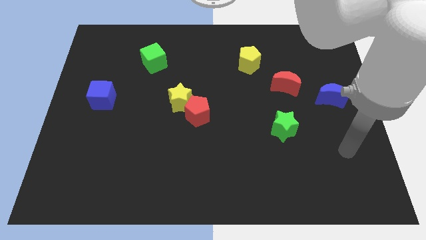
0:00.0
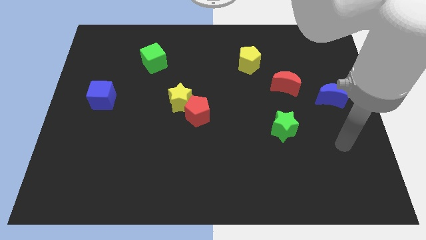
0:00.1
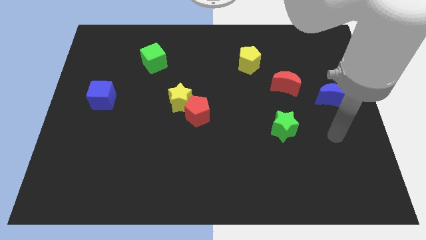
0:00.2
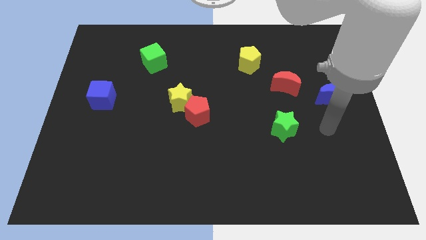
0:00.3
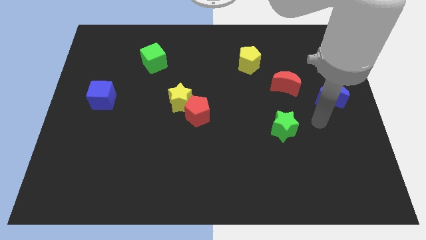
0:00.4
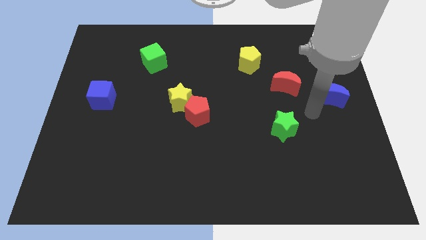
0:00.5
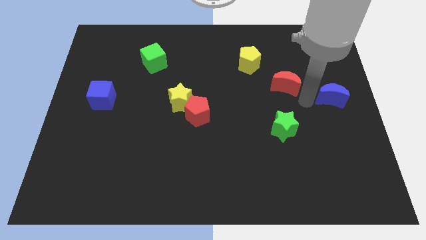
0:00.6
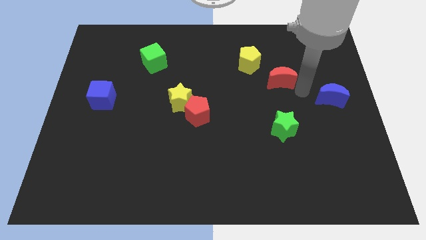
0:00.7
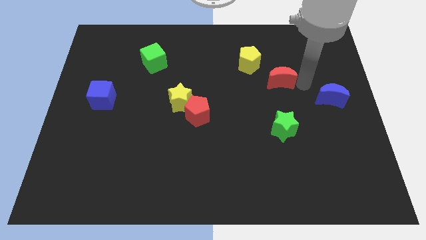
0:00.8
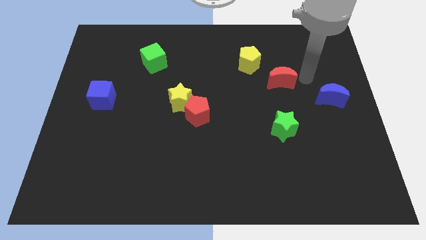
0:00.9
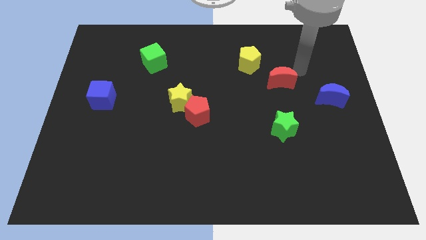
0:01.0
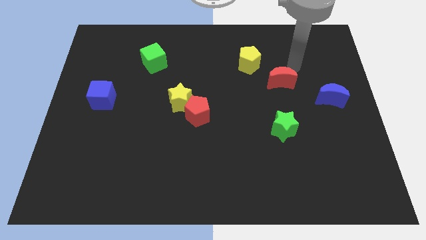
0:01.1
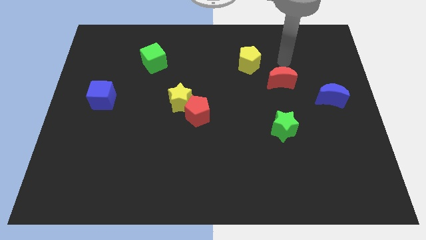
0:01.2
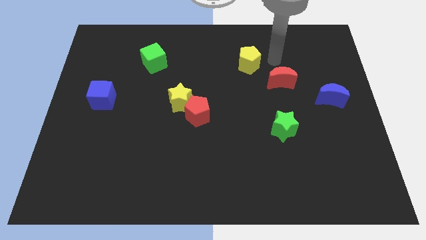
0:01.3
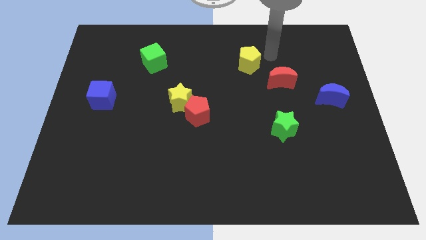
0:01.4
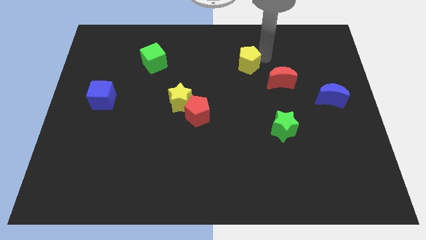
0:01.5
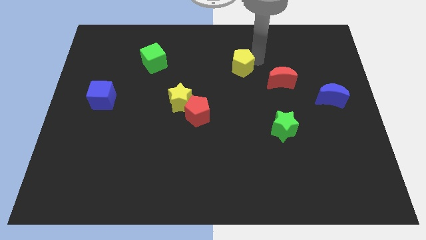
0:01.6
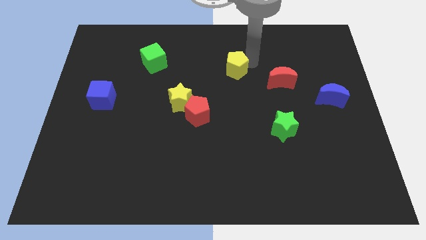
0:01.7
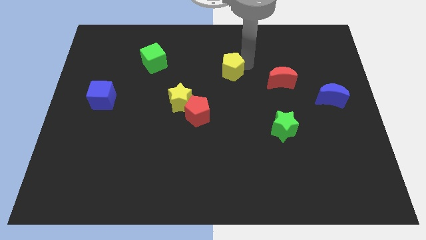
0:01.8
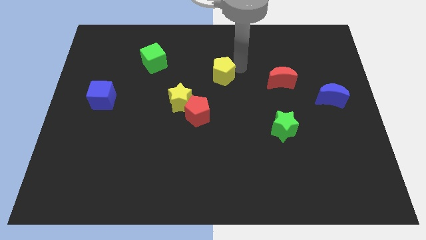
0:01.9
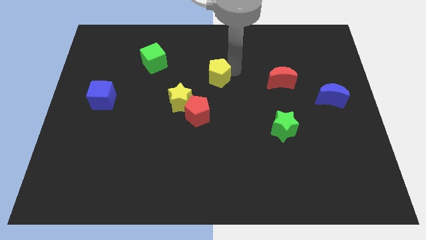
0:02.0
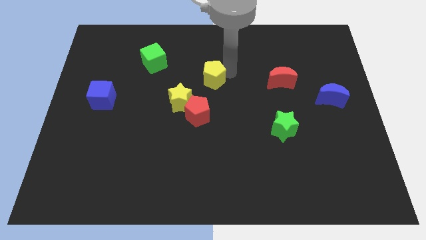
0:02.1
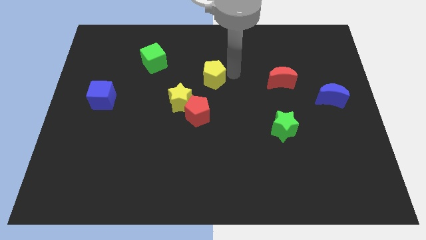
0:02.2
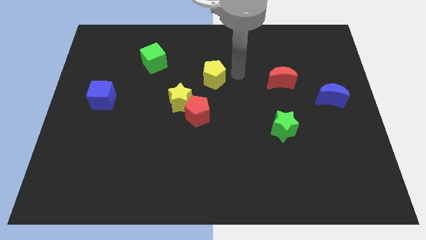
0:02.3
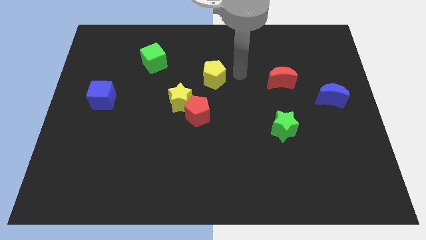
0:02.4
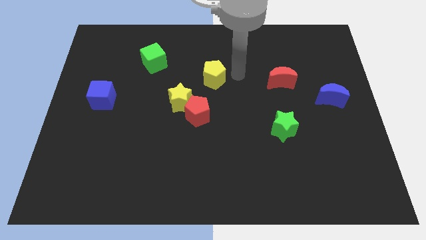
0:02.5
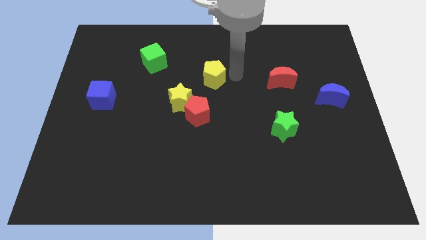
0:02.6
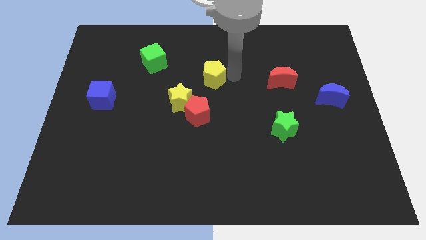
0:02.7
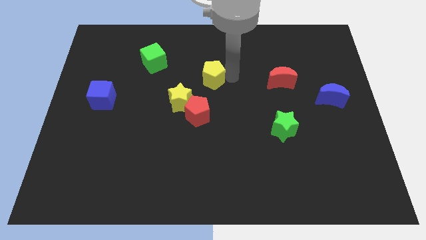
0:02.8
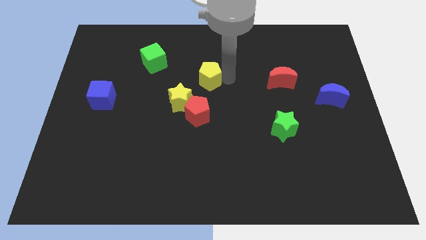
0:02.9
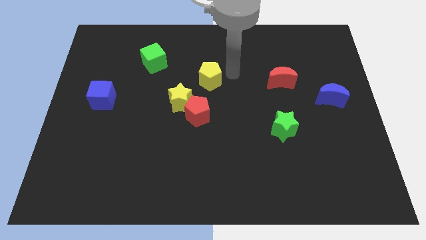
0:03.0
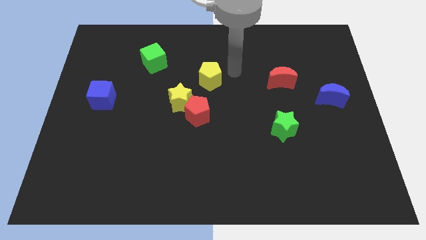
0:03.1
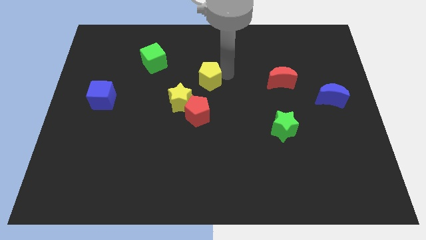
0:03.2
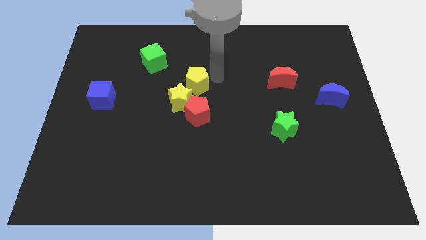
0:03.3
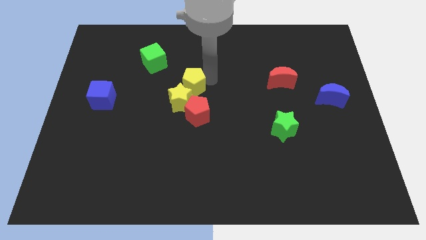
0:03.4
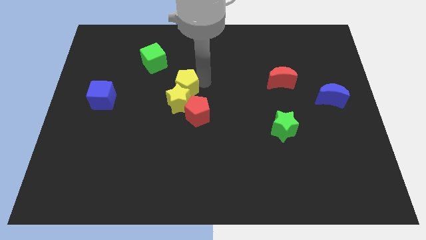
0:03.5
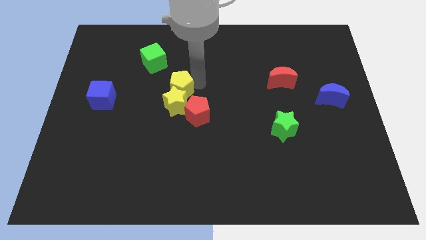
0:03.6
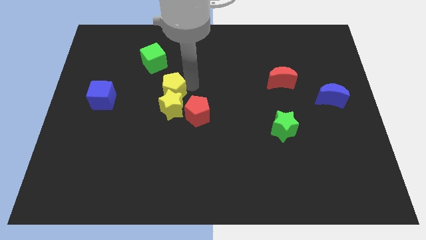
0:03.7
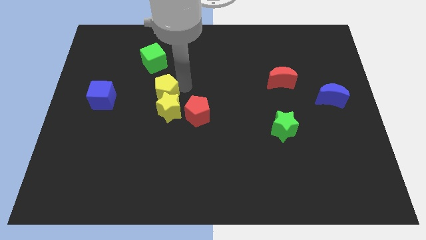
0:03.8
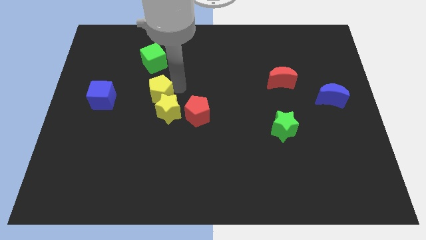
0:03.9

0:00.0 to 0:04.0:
push the yellow pentagon downwards and to the left

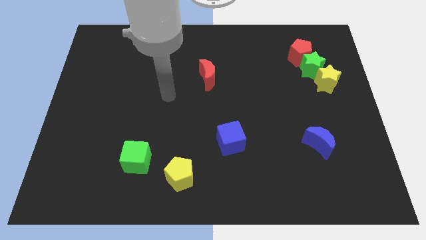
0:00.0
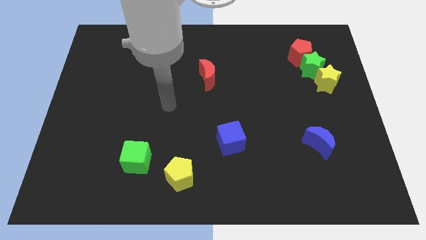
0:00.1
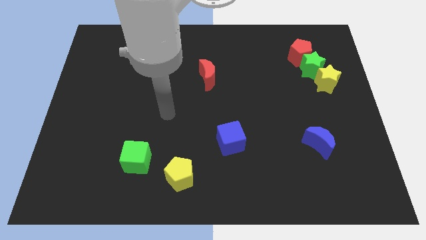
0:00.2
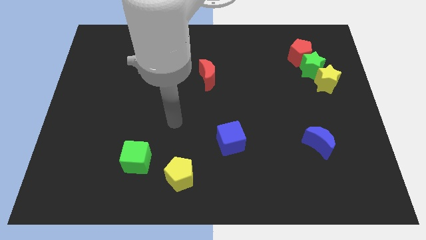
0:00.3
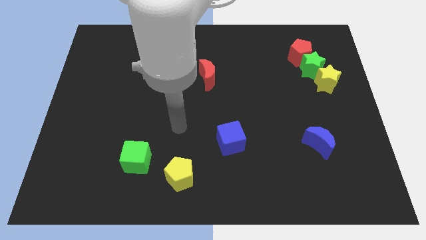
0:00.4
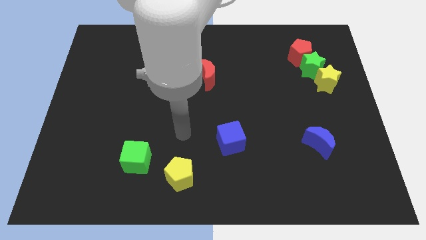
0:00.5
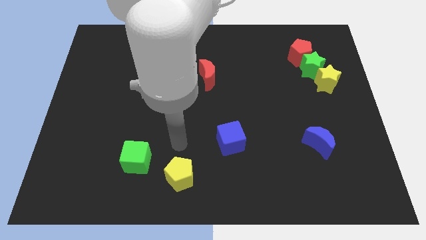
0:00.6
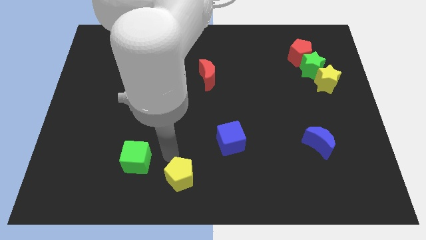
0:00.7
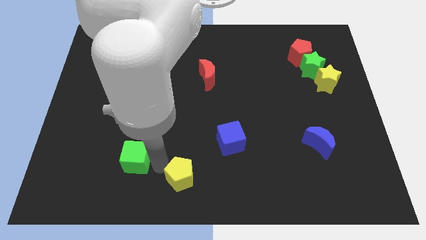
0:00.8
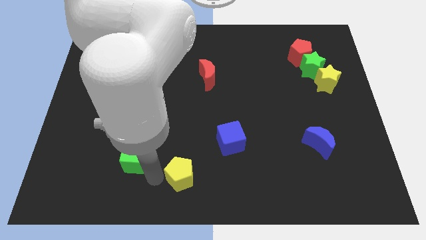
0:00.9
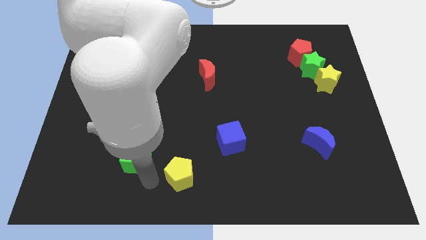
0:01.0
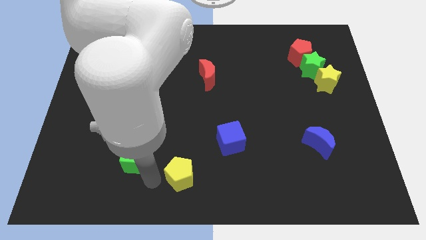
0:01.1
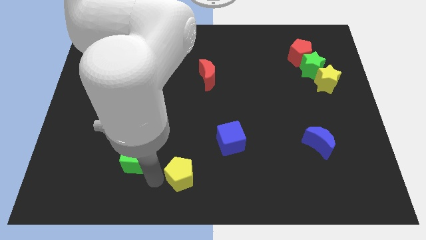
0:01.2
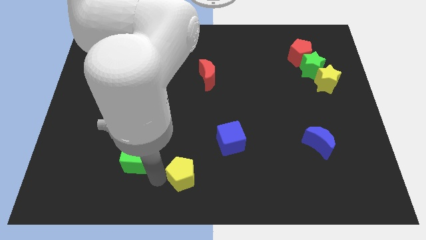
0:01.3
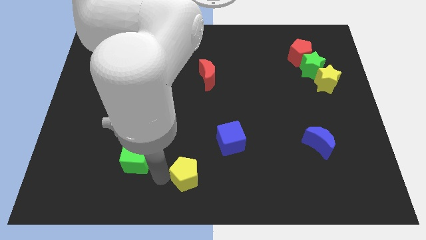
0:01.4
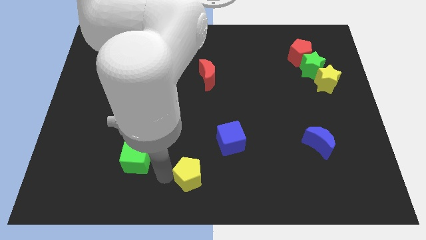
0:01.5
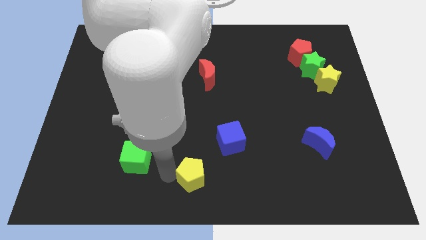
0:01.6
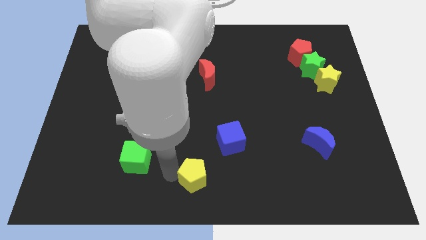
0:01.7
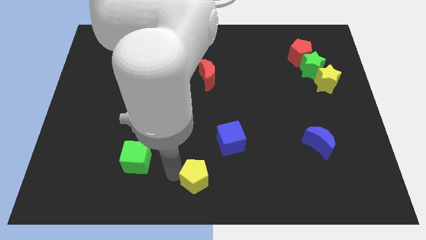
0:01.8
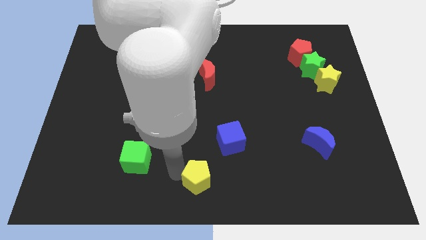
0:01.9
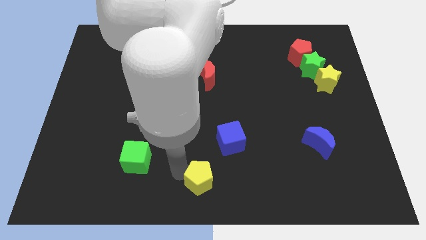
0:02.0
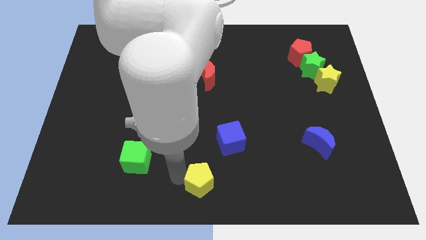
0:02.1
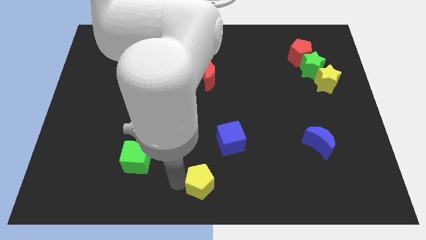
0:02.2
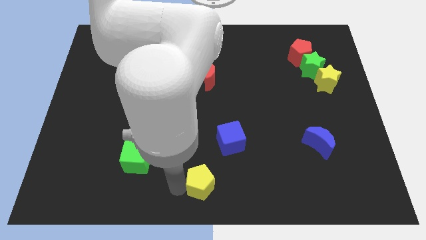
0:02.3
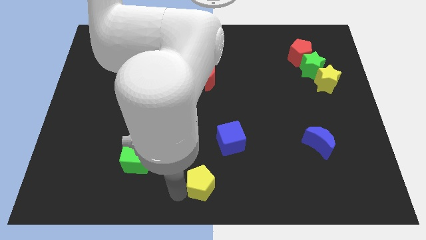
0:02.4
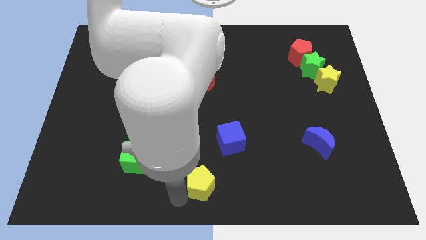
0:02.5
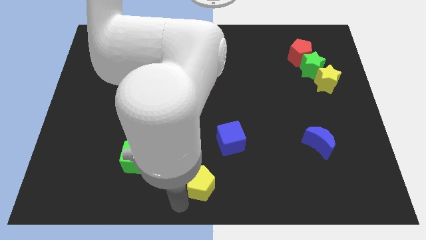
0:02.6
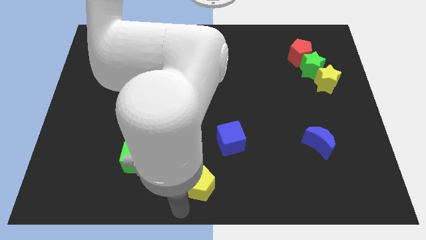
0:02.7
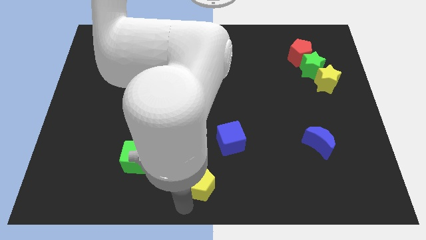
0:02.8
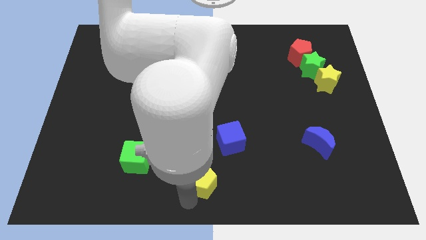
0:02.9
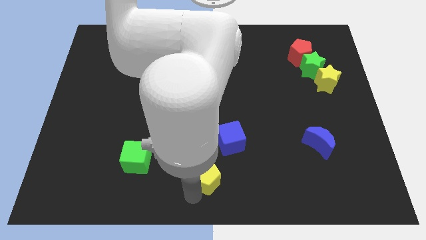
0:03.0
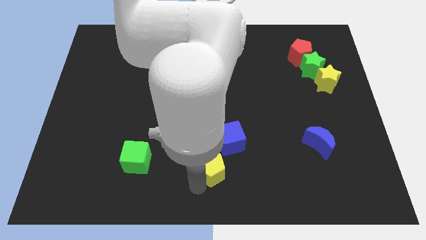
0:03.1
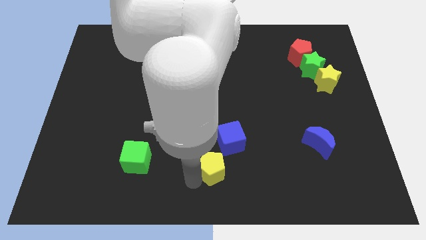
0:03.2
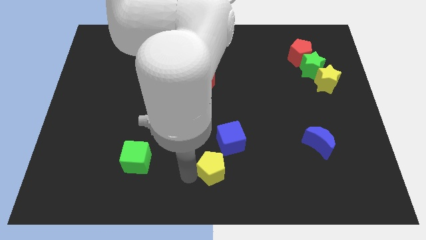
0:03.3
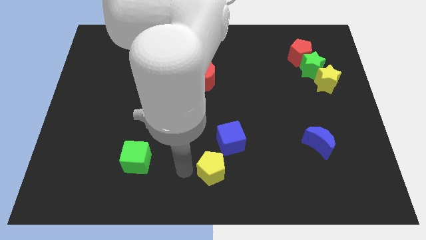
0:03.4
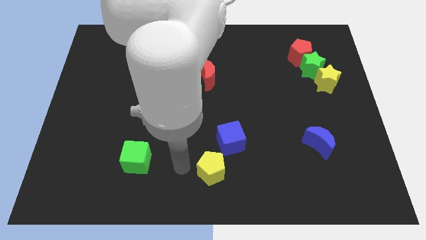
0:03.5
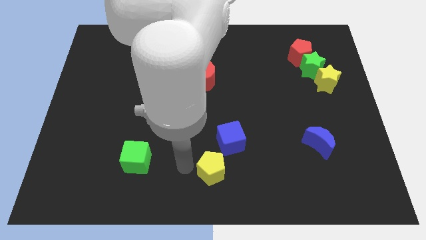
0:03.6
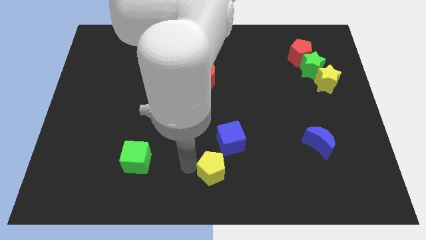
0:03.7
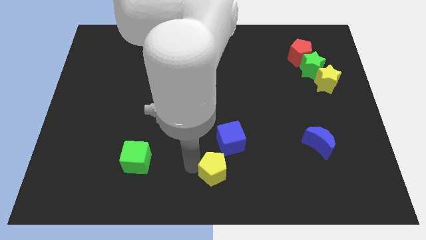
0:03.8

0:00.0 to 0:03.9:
slightly move the yellow pentagon right

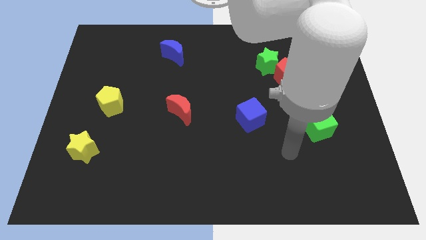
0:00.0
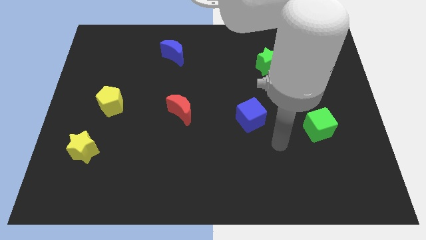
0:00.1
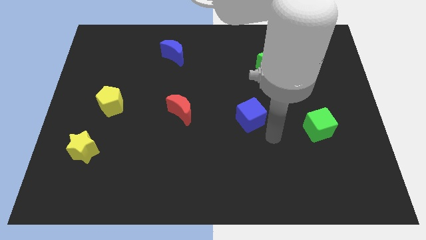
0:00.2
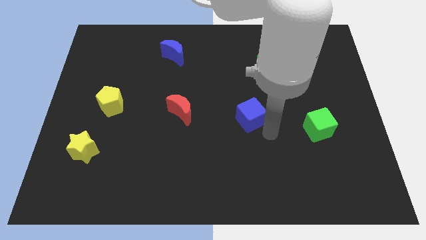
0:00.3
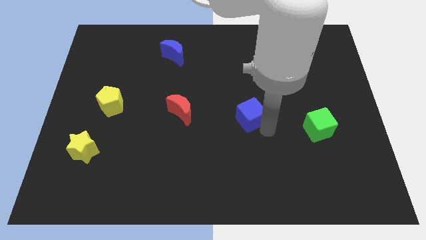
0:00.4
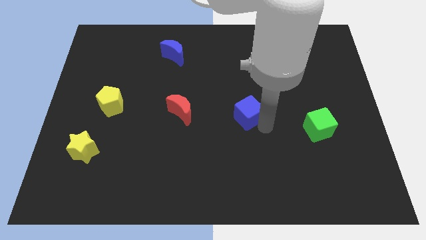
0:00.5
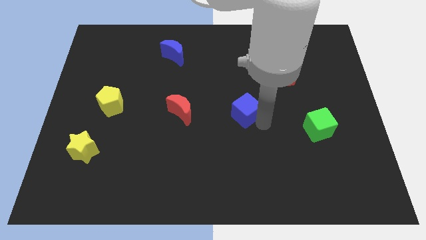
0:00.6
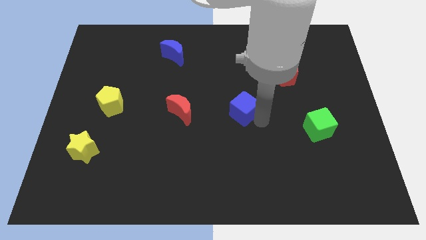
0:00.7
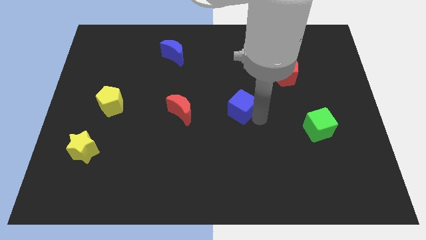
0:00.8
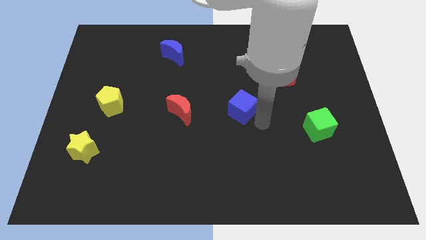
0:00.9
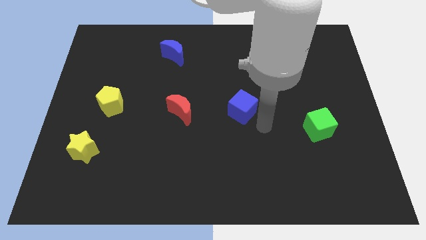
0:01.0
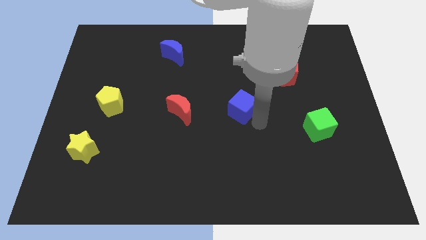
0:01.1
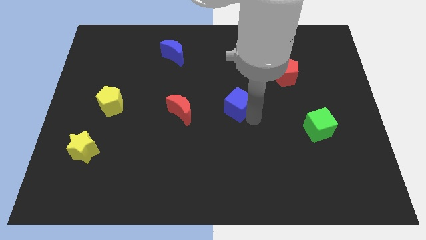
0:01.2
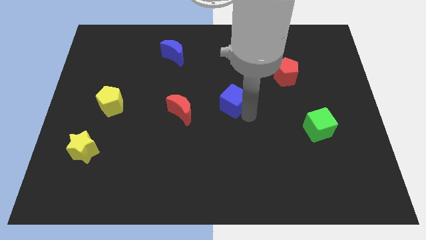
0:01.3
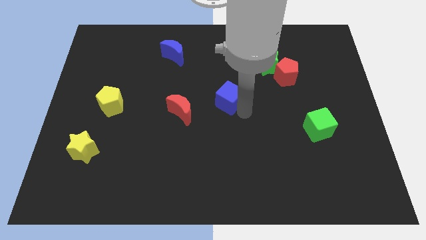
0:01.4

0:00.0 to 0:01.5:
push the blue cube a little diagonally up and to the left
